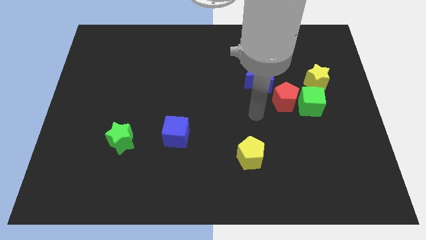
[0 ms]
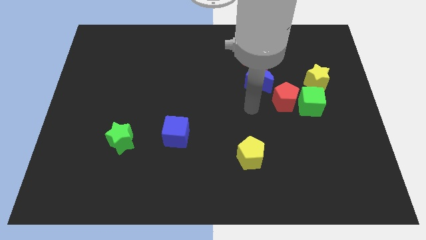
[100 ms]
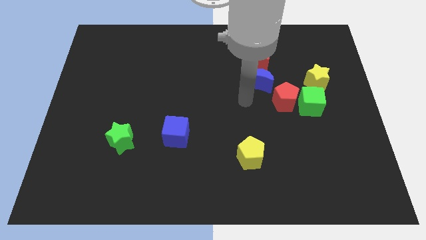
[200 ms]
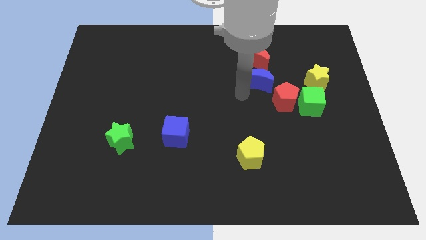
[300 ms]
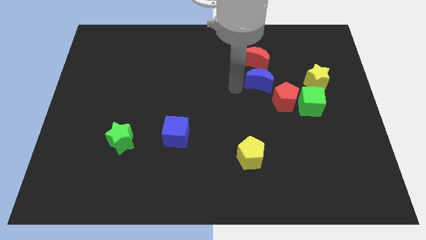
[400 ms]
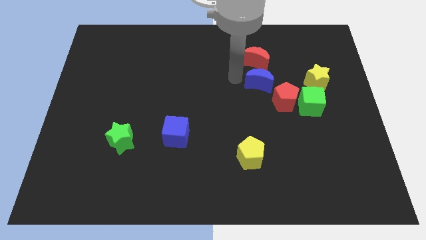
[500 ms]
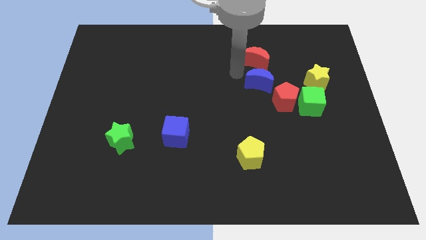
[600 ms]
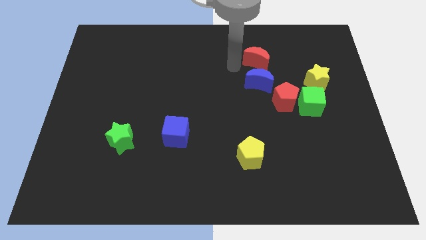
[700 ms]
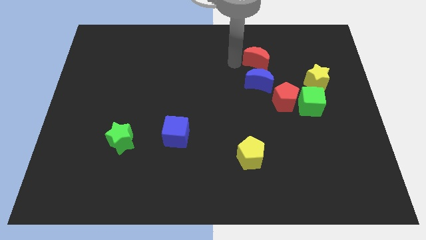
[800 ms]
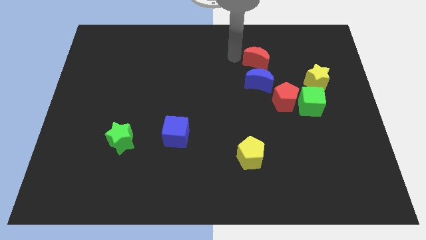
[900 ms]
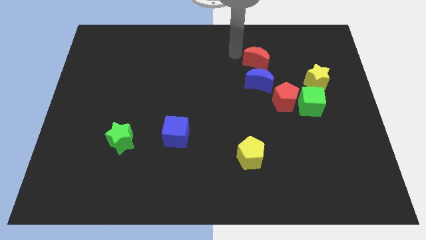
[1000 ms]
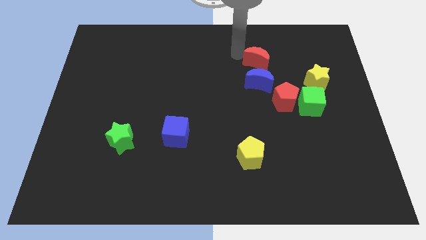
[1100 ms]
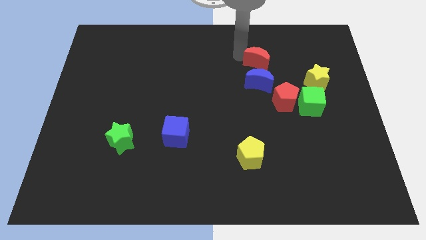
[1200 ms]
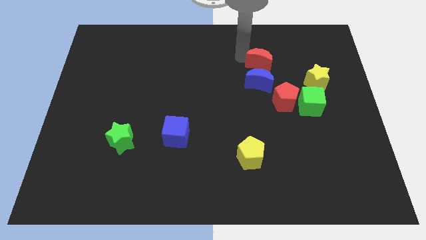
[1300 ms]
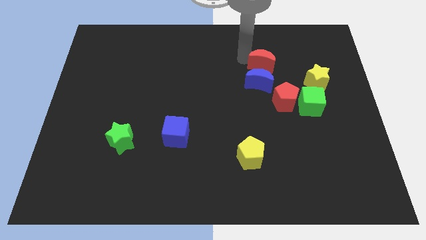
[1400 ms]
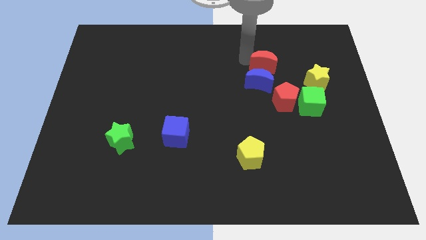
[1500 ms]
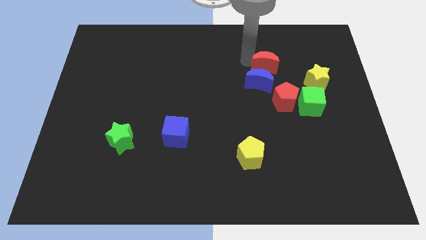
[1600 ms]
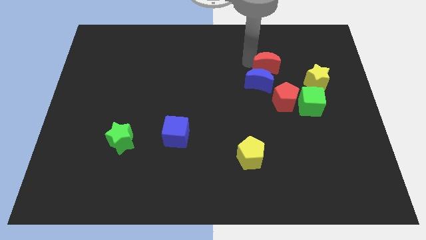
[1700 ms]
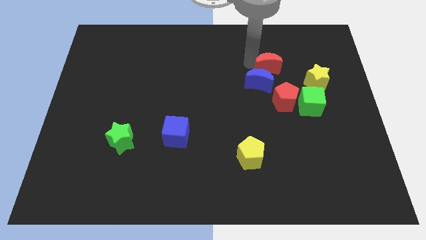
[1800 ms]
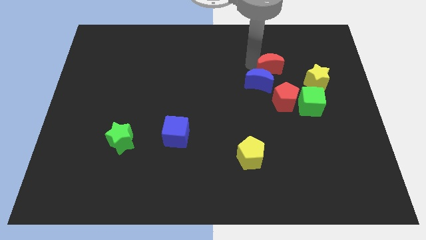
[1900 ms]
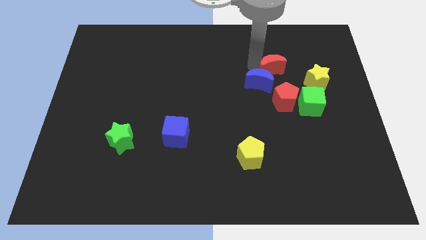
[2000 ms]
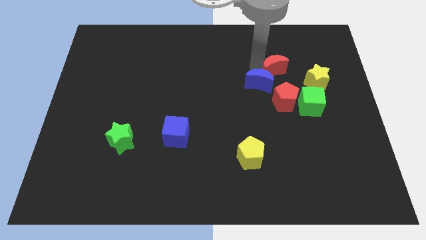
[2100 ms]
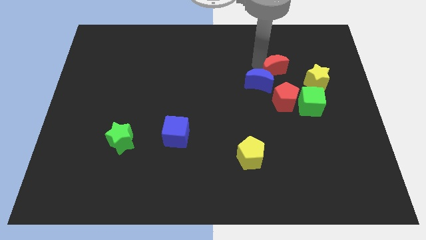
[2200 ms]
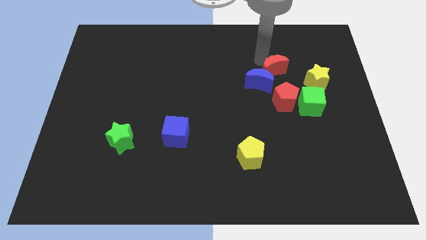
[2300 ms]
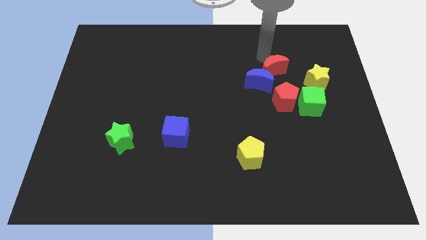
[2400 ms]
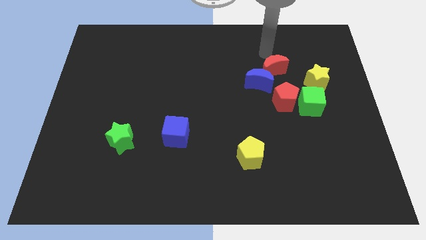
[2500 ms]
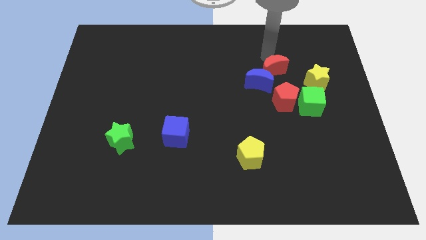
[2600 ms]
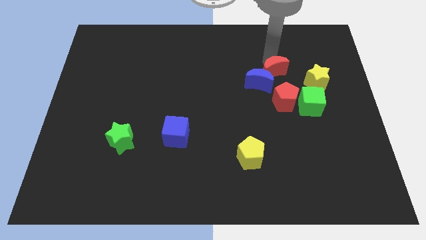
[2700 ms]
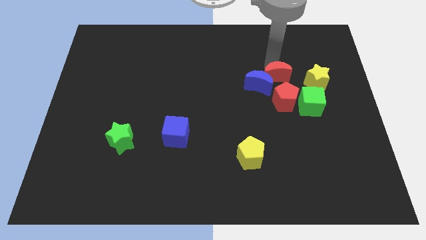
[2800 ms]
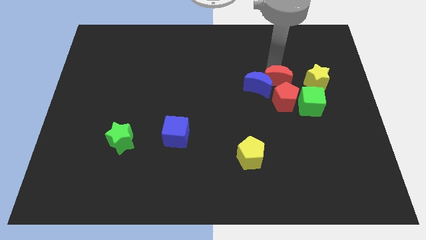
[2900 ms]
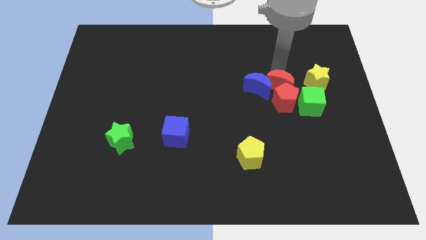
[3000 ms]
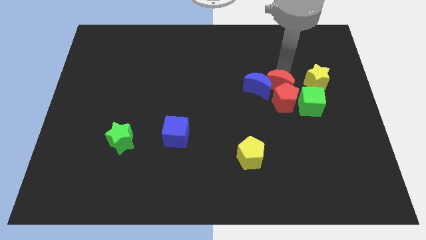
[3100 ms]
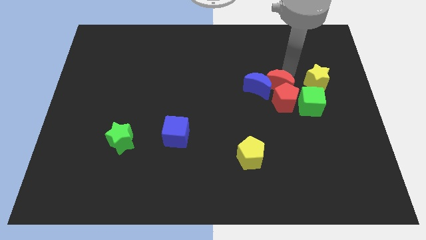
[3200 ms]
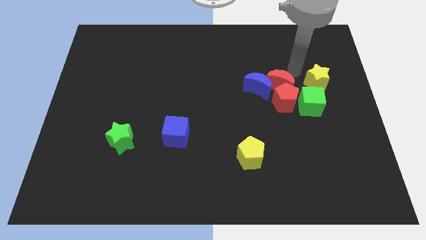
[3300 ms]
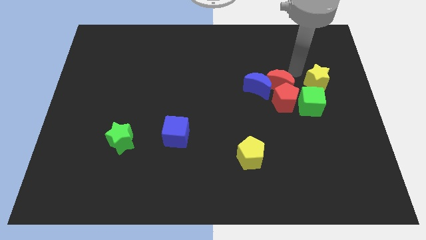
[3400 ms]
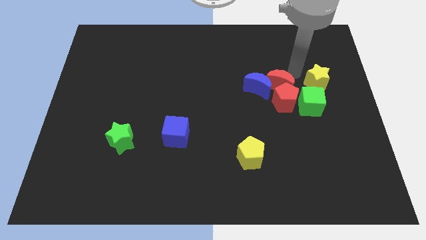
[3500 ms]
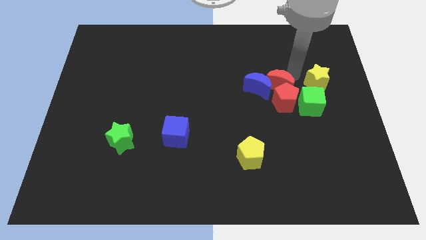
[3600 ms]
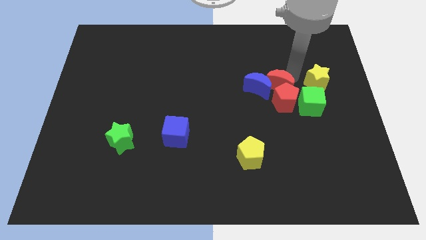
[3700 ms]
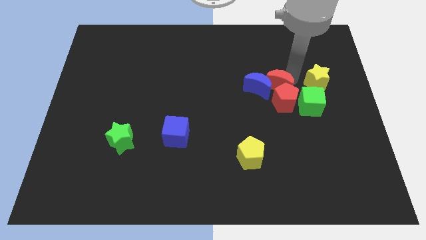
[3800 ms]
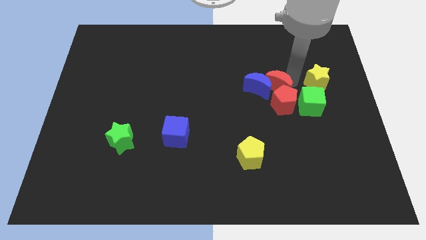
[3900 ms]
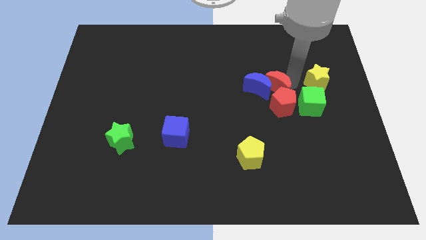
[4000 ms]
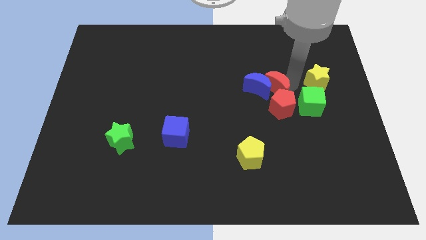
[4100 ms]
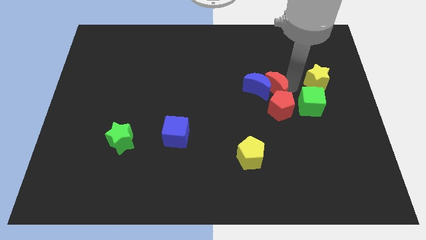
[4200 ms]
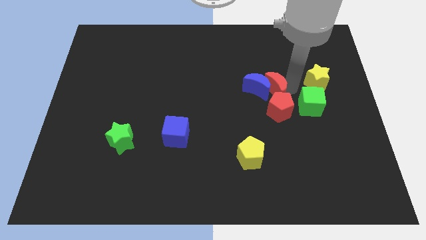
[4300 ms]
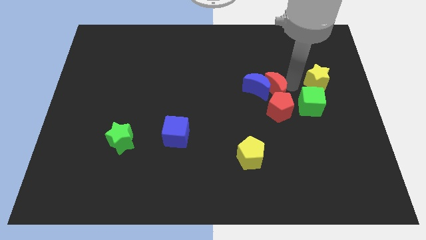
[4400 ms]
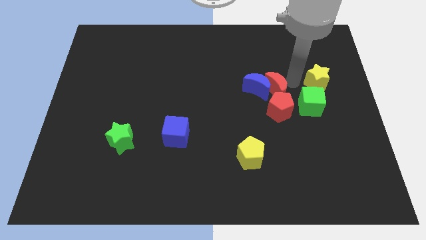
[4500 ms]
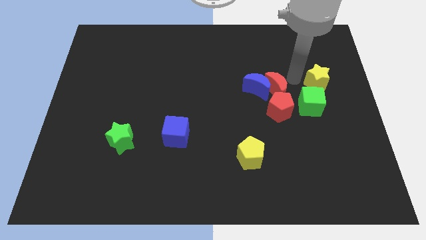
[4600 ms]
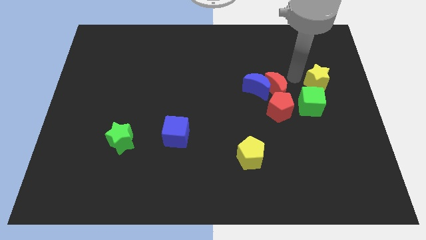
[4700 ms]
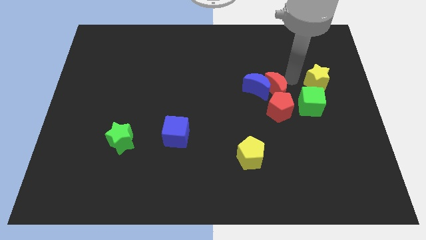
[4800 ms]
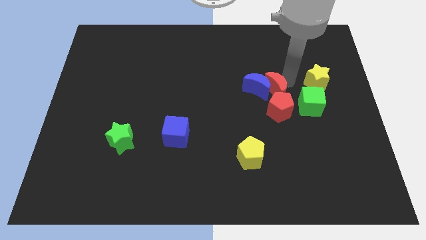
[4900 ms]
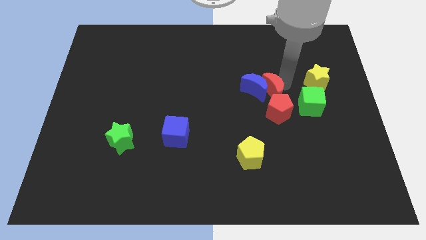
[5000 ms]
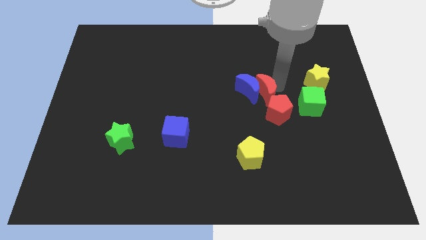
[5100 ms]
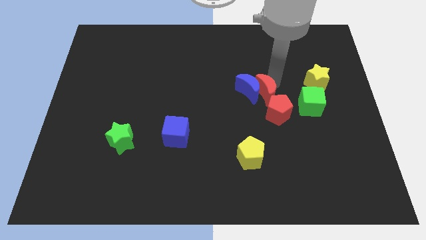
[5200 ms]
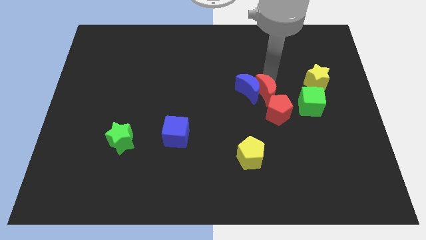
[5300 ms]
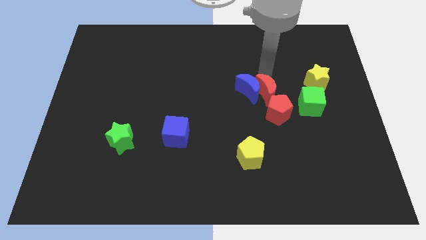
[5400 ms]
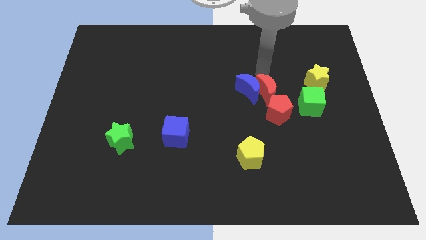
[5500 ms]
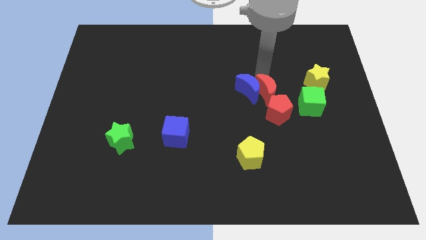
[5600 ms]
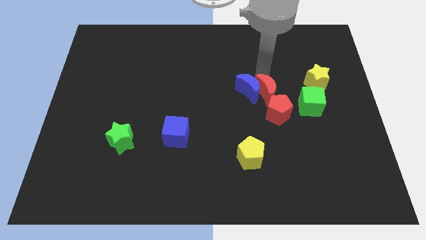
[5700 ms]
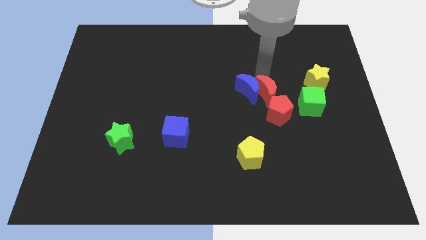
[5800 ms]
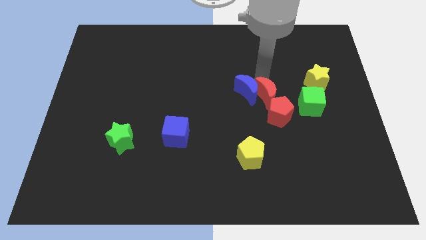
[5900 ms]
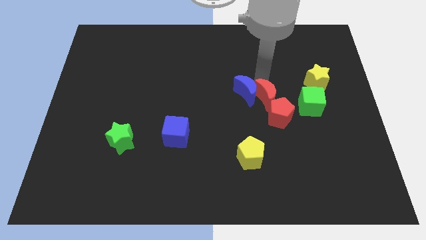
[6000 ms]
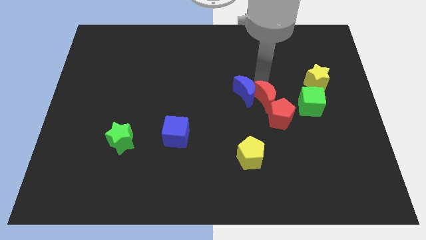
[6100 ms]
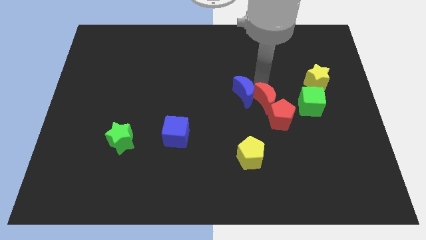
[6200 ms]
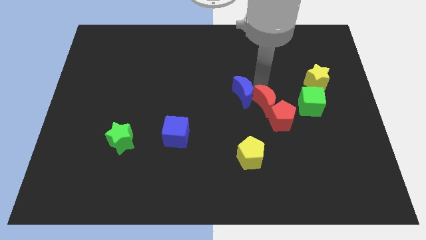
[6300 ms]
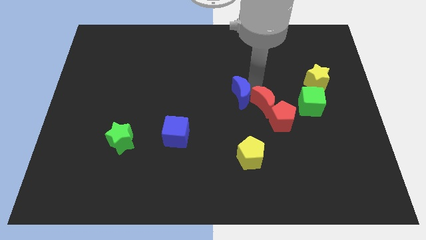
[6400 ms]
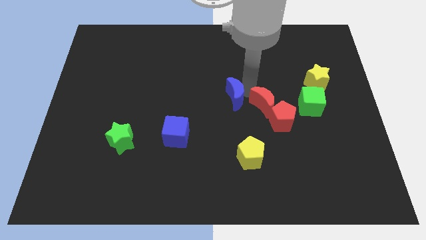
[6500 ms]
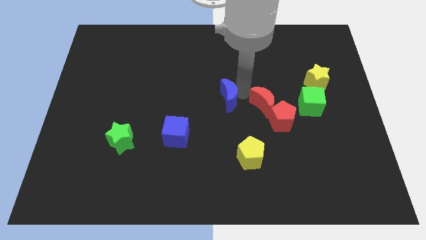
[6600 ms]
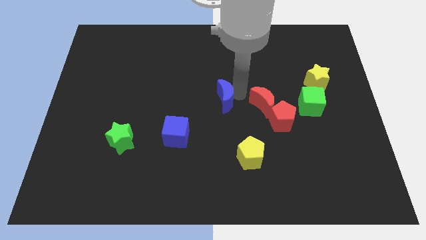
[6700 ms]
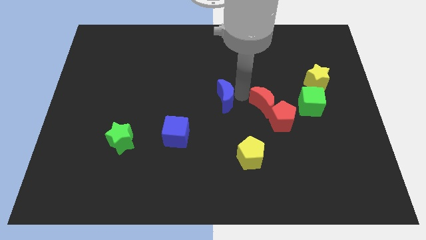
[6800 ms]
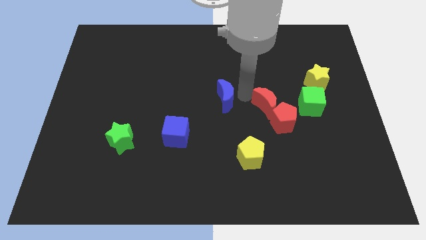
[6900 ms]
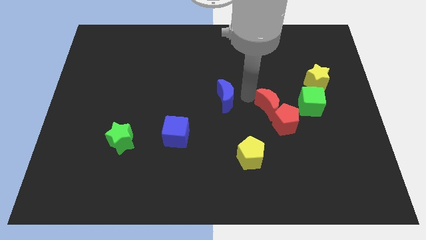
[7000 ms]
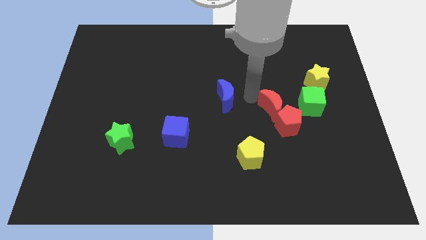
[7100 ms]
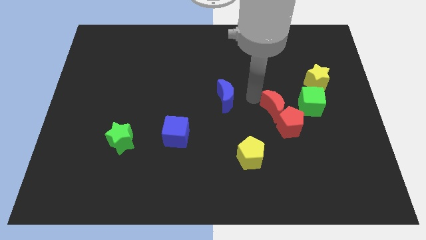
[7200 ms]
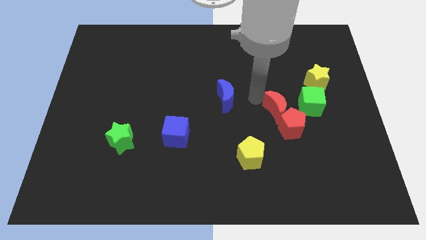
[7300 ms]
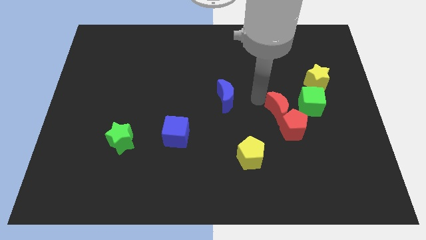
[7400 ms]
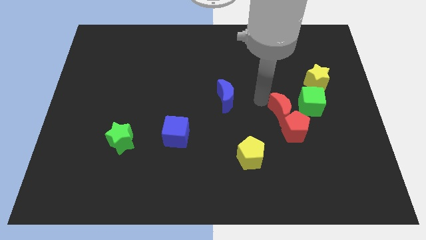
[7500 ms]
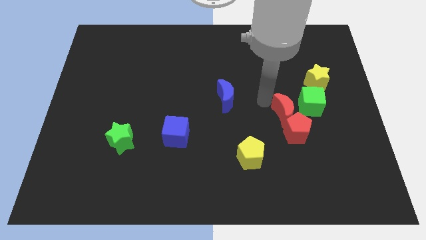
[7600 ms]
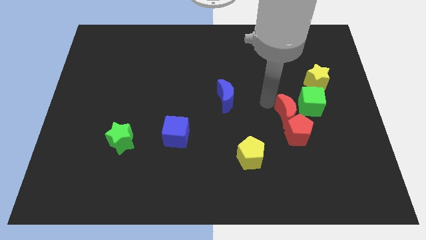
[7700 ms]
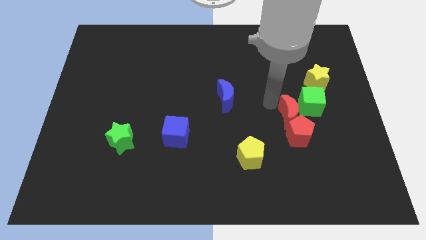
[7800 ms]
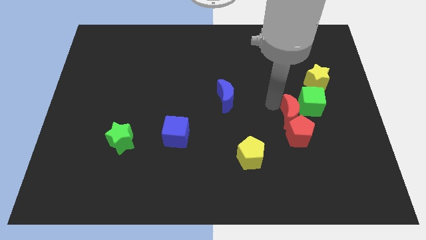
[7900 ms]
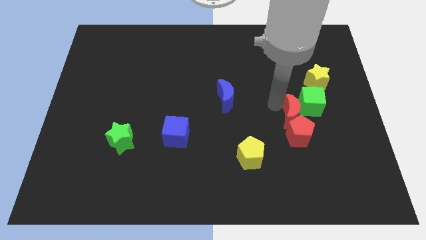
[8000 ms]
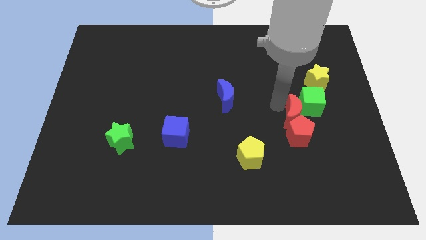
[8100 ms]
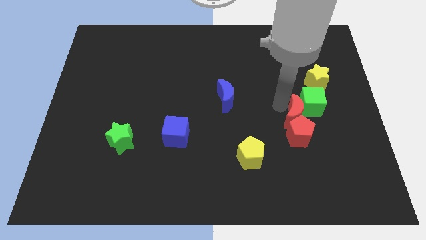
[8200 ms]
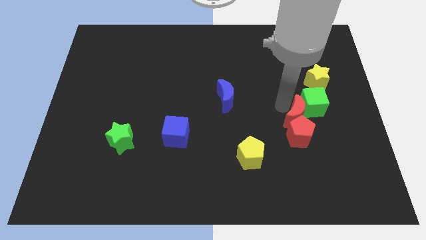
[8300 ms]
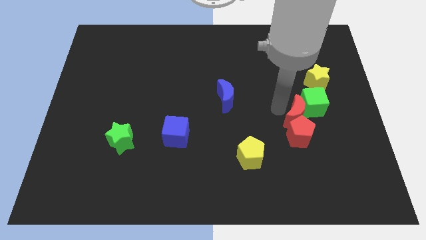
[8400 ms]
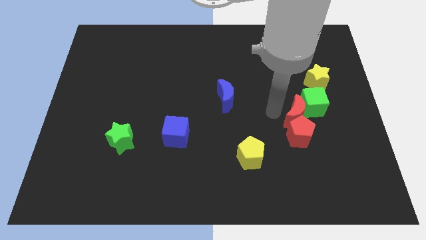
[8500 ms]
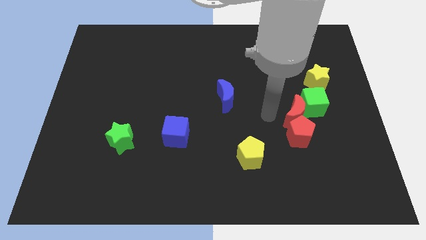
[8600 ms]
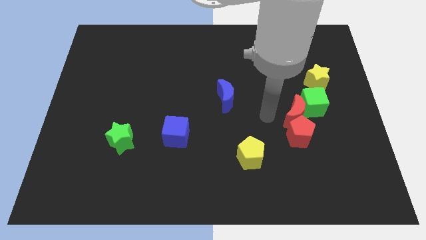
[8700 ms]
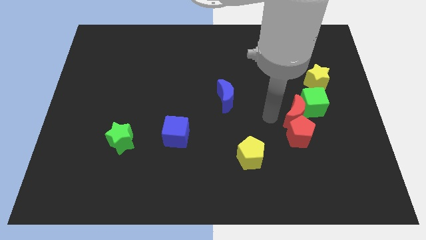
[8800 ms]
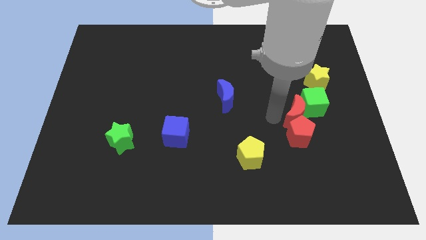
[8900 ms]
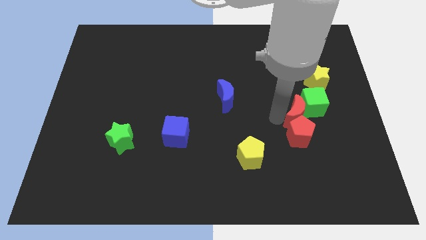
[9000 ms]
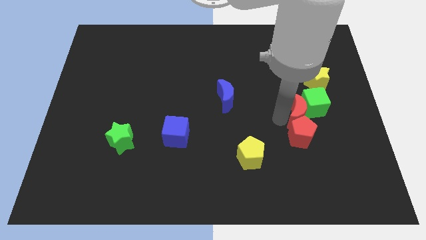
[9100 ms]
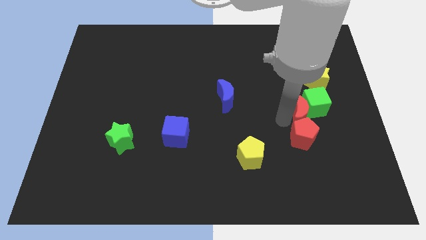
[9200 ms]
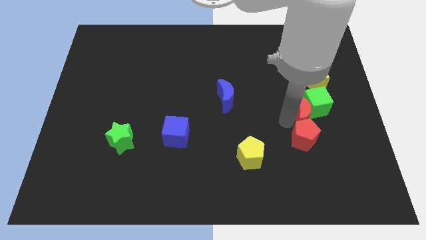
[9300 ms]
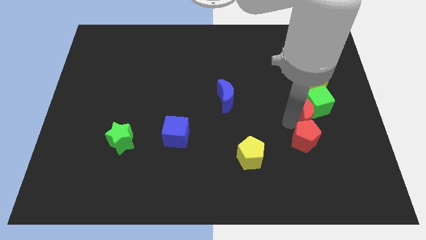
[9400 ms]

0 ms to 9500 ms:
move the red moon to the bottom of the yellow star
